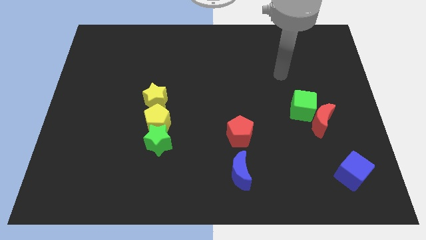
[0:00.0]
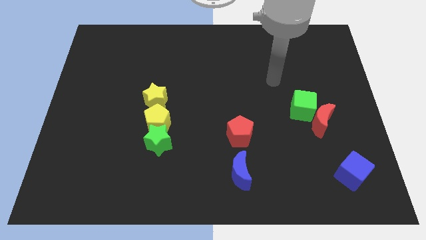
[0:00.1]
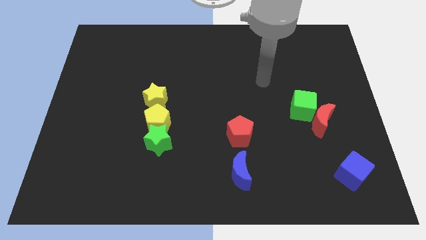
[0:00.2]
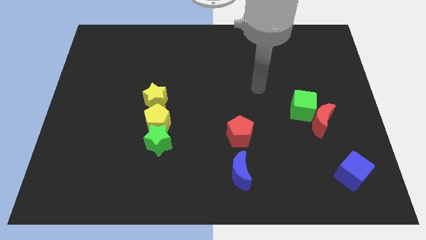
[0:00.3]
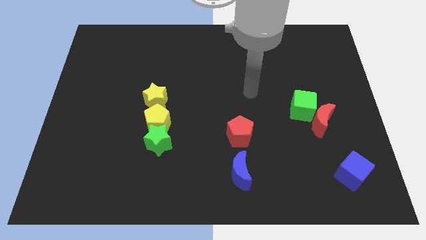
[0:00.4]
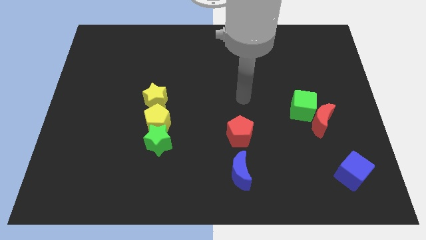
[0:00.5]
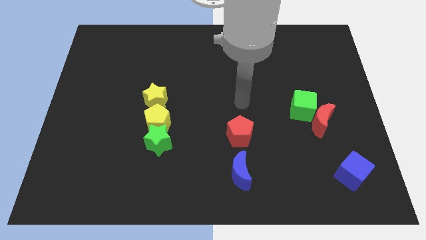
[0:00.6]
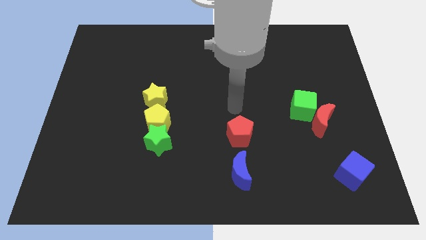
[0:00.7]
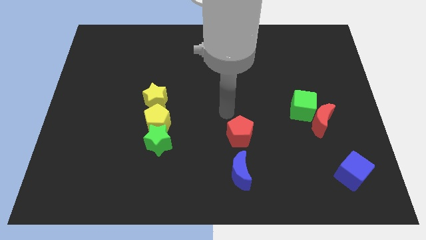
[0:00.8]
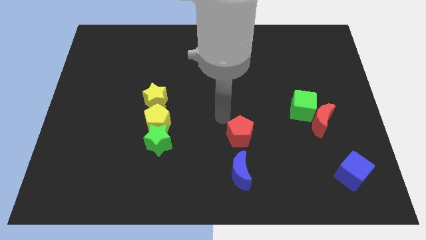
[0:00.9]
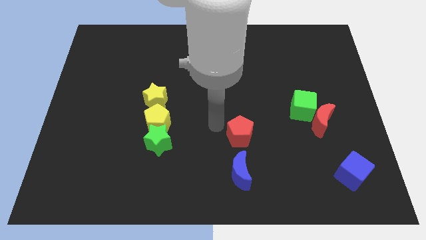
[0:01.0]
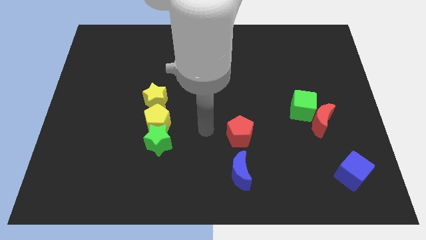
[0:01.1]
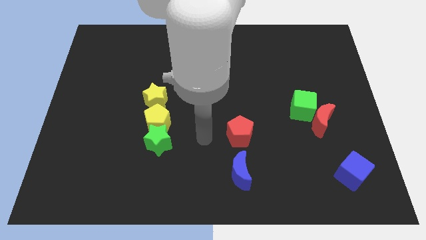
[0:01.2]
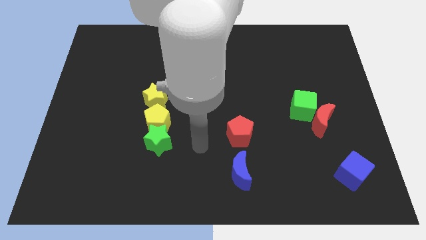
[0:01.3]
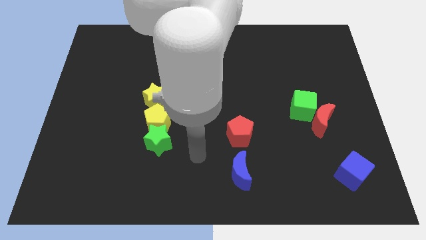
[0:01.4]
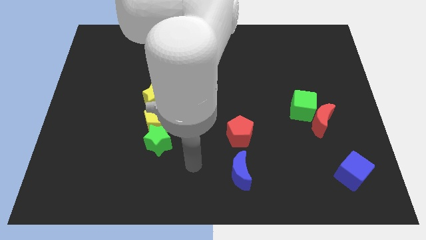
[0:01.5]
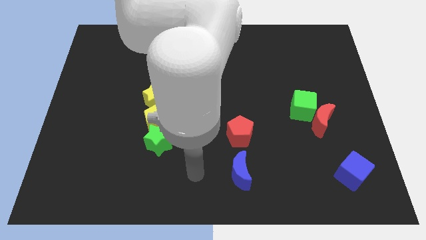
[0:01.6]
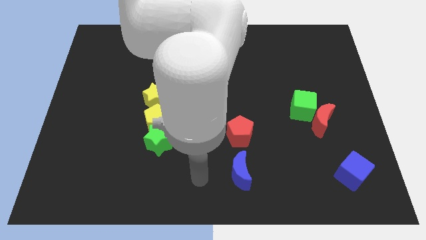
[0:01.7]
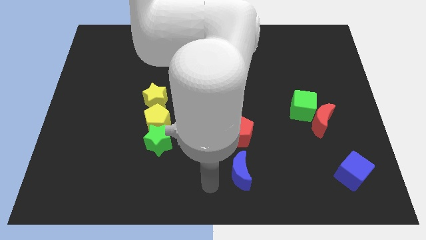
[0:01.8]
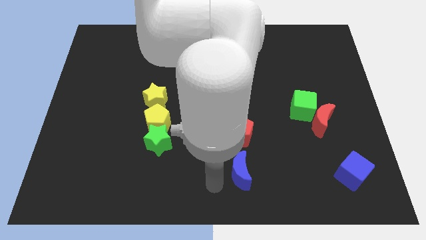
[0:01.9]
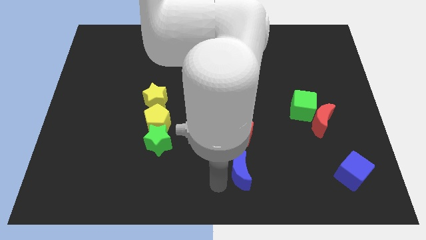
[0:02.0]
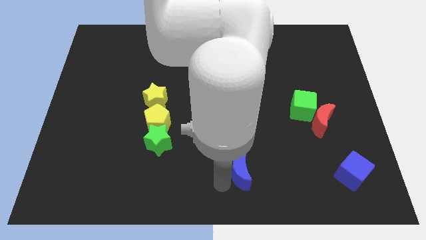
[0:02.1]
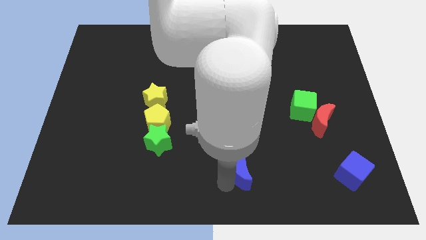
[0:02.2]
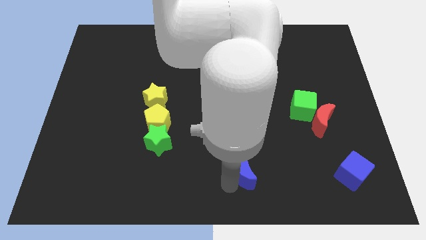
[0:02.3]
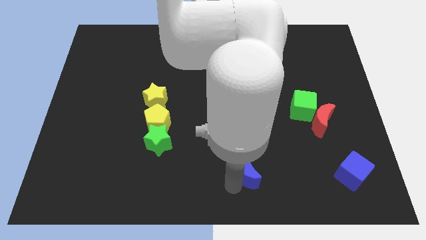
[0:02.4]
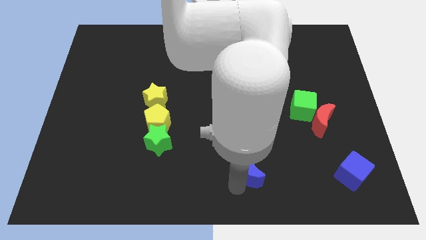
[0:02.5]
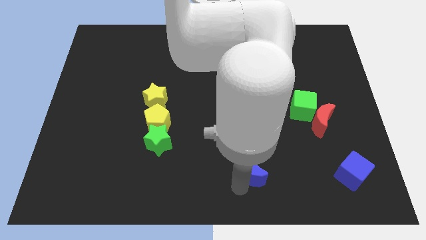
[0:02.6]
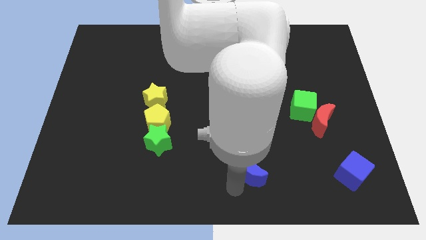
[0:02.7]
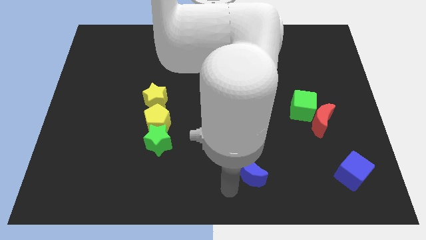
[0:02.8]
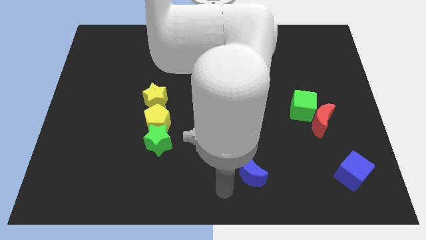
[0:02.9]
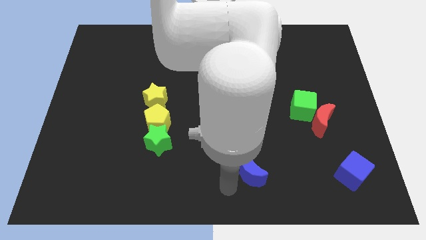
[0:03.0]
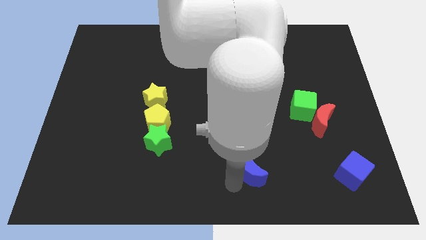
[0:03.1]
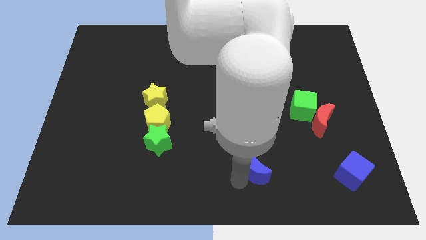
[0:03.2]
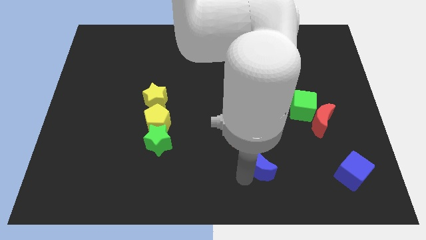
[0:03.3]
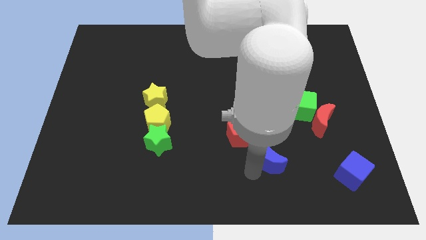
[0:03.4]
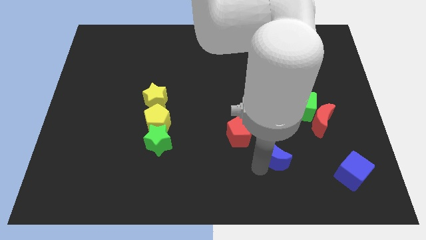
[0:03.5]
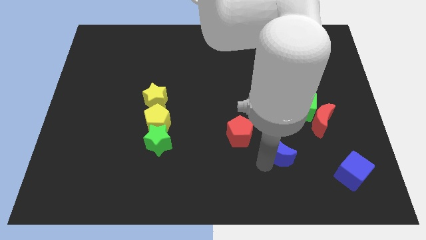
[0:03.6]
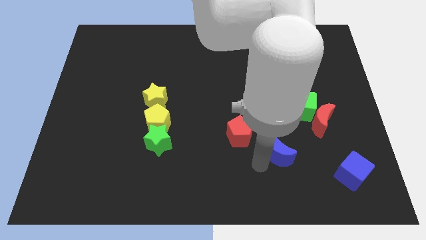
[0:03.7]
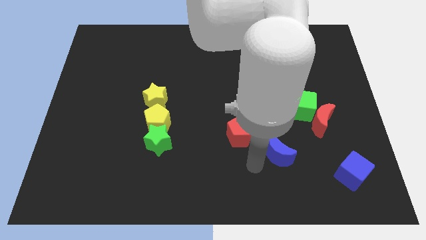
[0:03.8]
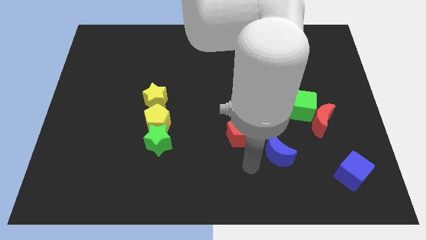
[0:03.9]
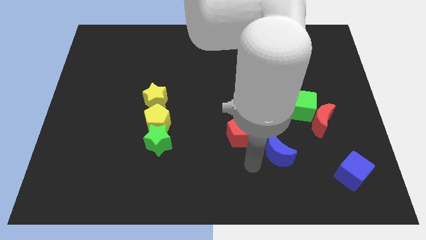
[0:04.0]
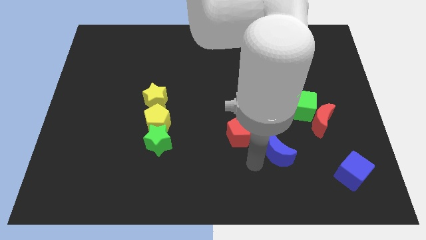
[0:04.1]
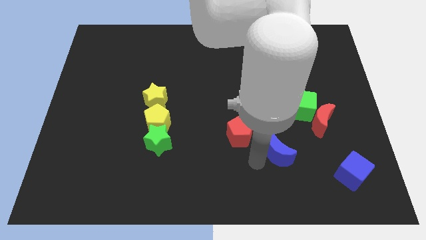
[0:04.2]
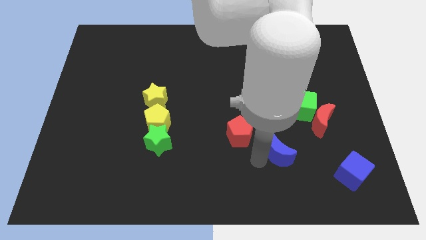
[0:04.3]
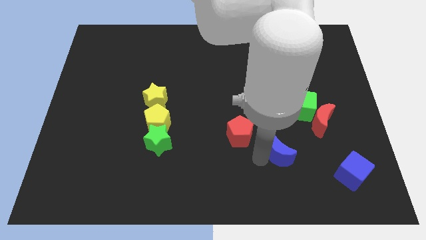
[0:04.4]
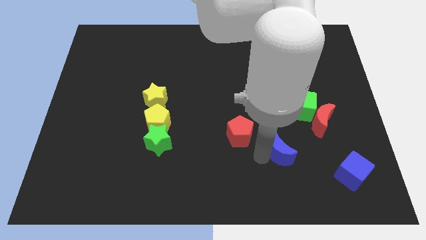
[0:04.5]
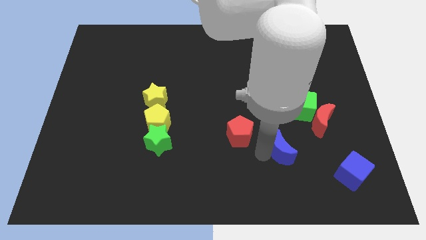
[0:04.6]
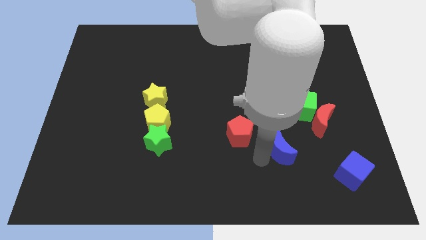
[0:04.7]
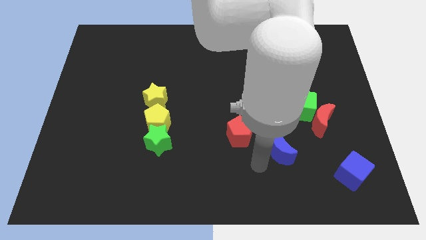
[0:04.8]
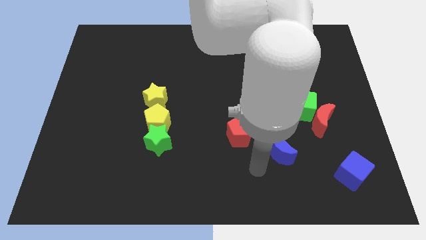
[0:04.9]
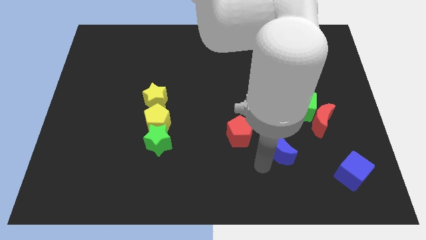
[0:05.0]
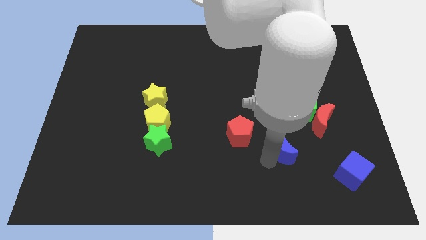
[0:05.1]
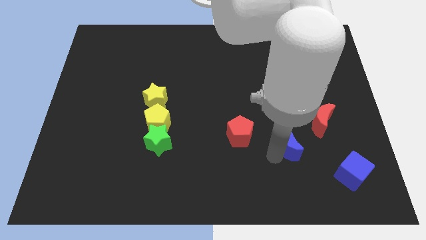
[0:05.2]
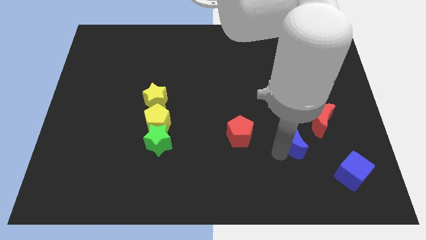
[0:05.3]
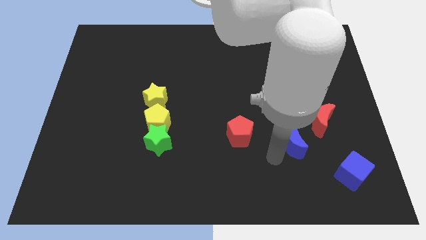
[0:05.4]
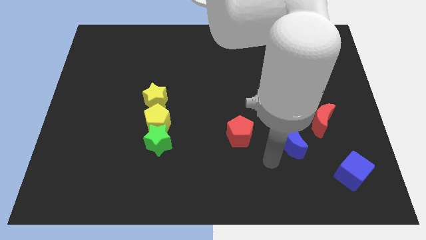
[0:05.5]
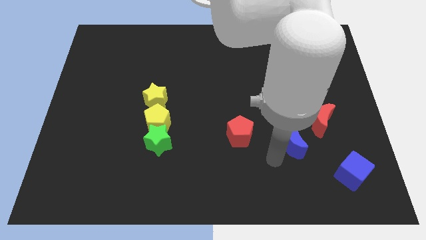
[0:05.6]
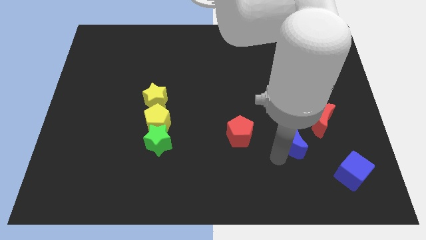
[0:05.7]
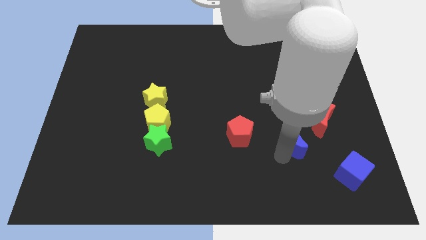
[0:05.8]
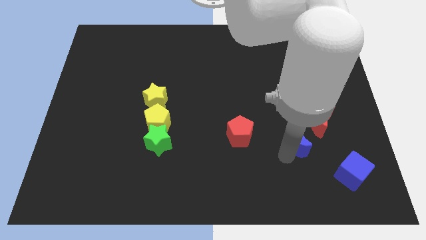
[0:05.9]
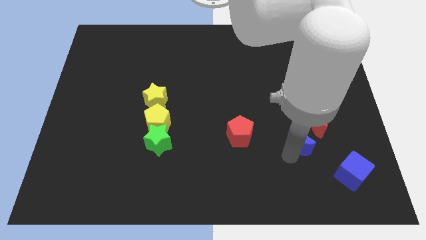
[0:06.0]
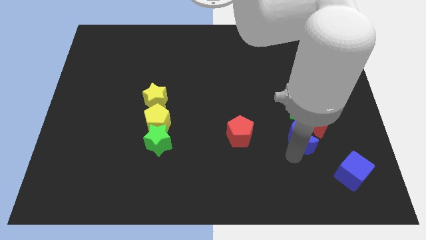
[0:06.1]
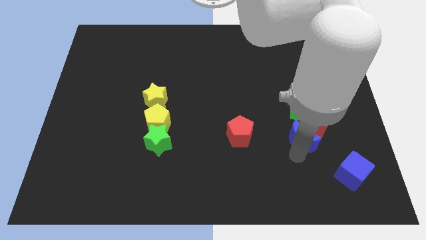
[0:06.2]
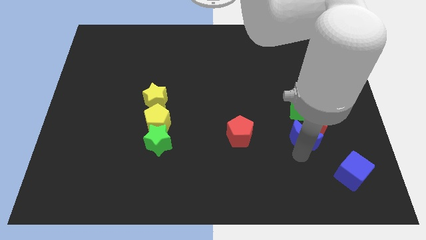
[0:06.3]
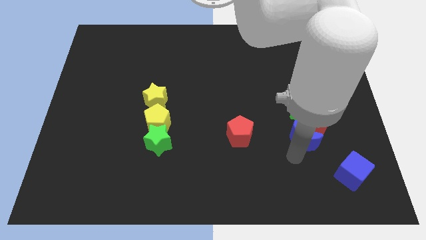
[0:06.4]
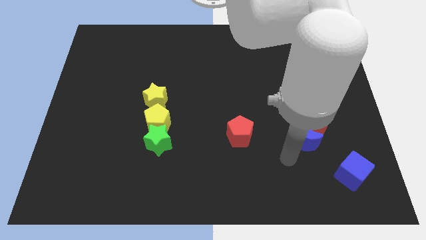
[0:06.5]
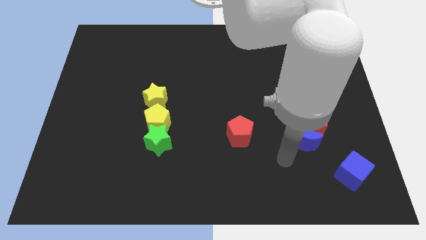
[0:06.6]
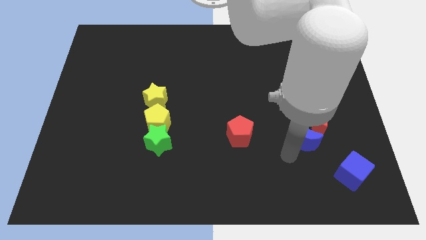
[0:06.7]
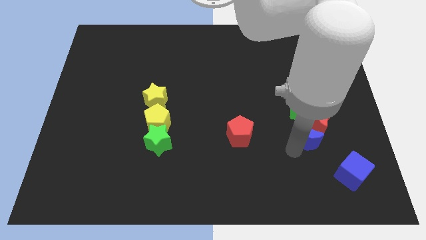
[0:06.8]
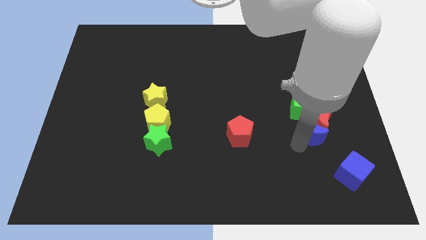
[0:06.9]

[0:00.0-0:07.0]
move the blue moon to the red moon

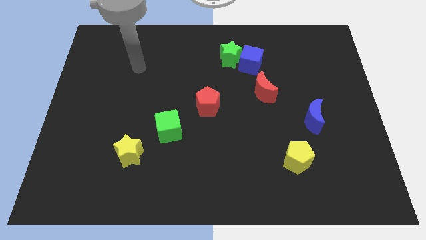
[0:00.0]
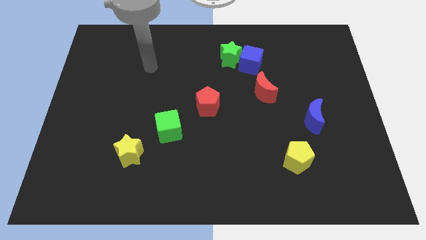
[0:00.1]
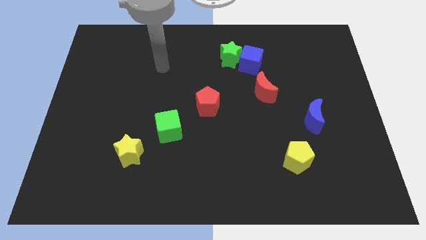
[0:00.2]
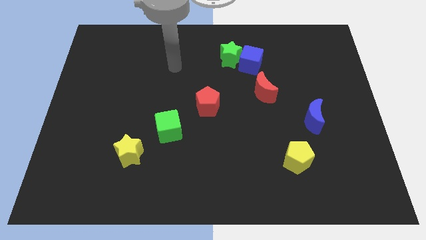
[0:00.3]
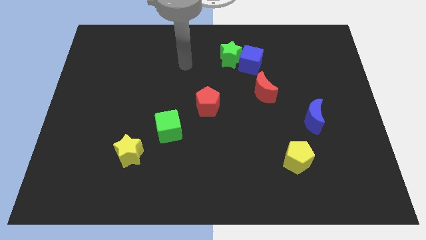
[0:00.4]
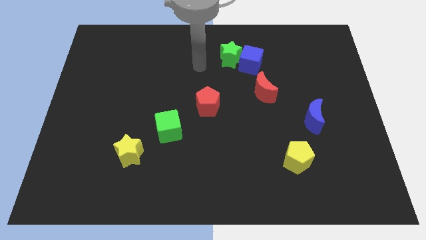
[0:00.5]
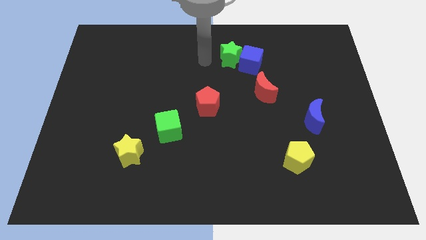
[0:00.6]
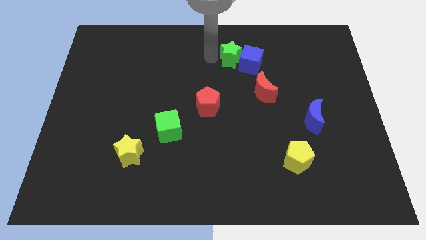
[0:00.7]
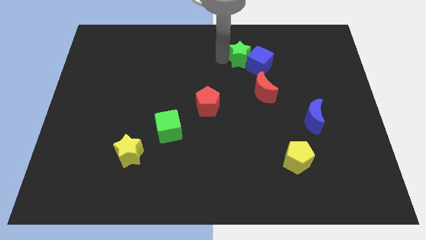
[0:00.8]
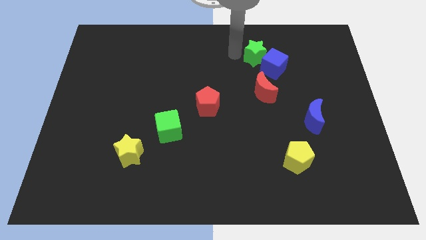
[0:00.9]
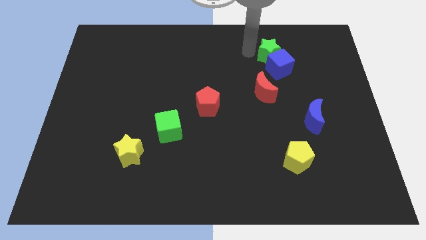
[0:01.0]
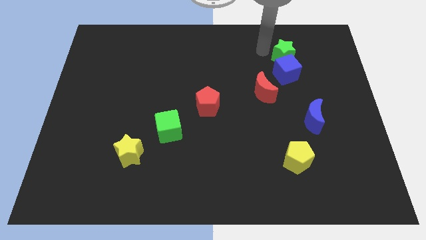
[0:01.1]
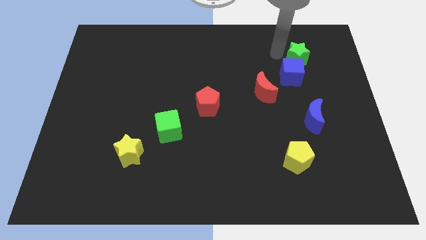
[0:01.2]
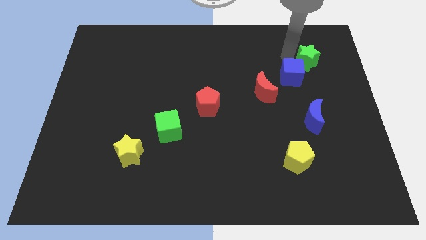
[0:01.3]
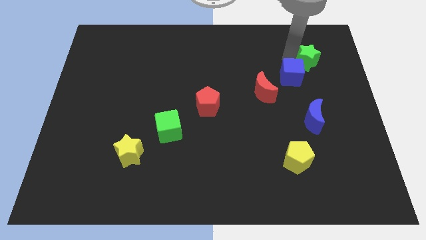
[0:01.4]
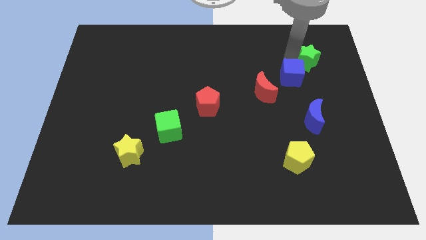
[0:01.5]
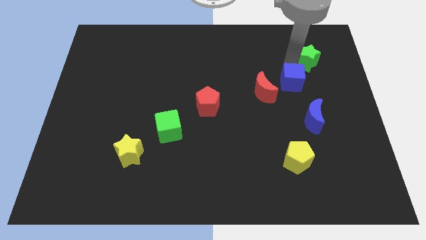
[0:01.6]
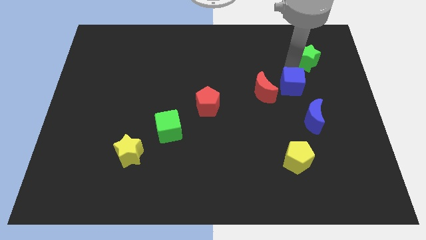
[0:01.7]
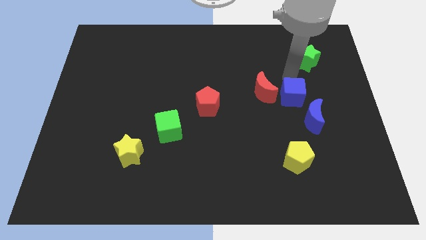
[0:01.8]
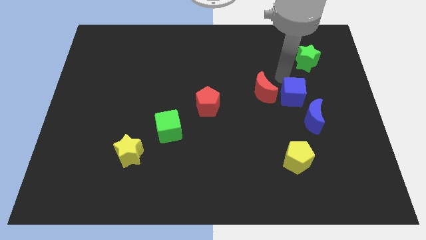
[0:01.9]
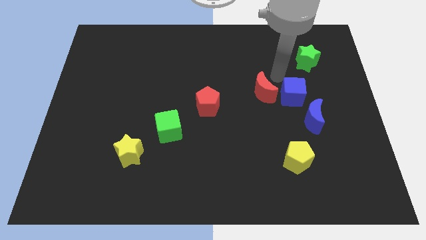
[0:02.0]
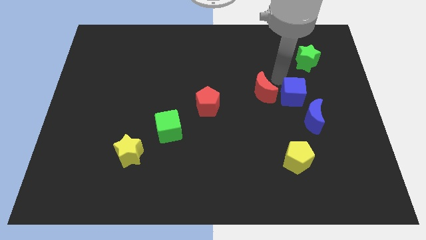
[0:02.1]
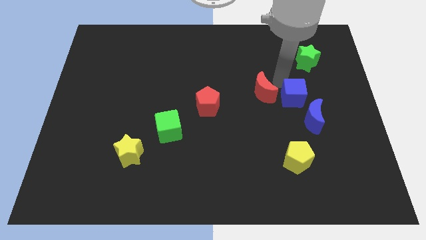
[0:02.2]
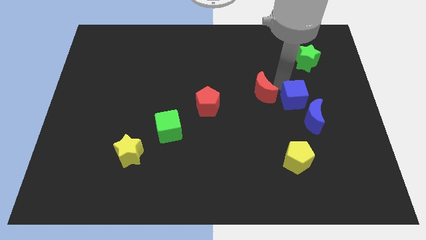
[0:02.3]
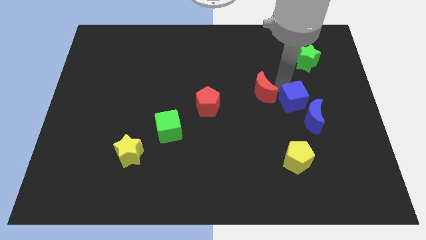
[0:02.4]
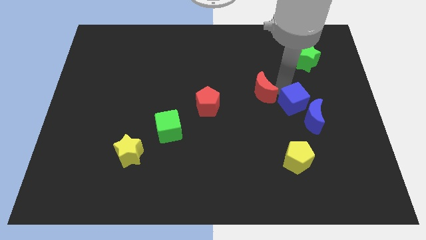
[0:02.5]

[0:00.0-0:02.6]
slide the blue cube next to the blue moon
